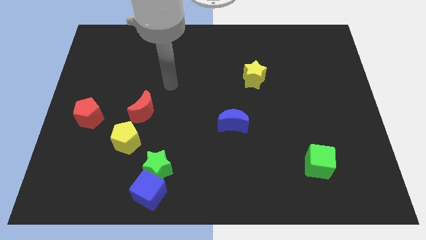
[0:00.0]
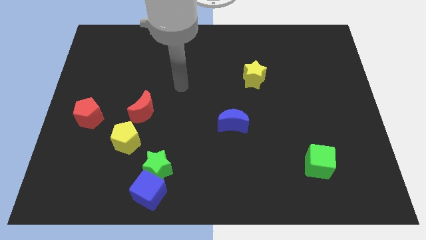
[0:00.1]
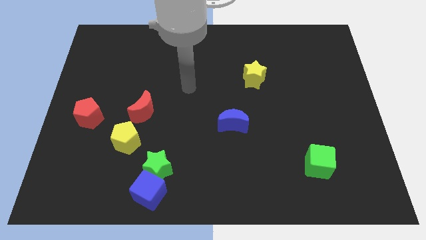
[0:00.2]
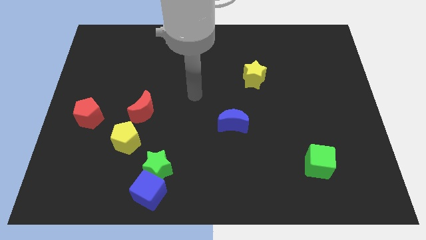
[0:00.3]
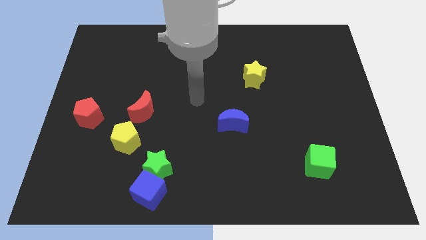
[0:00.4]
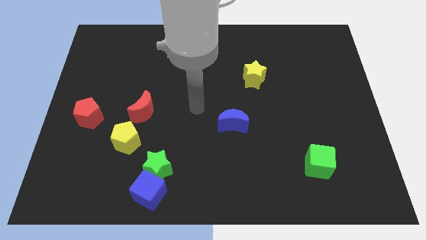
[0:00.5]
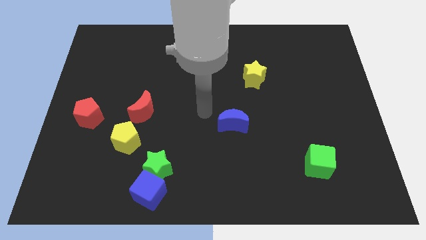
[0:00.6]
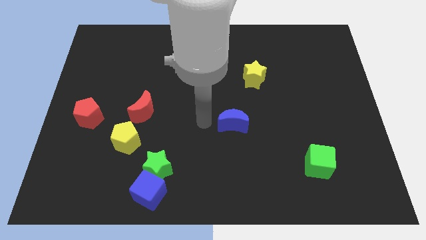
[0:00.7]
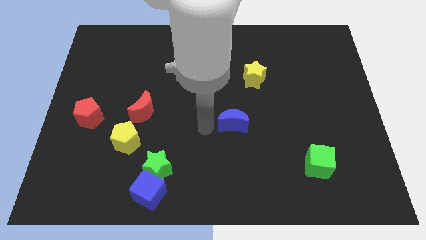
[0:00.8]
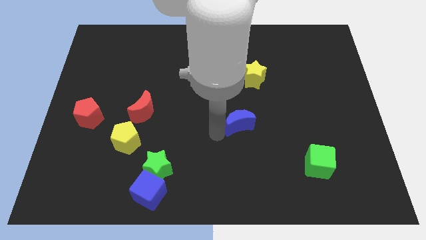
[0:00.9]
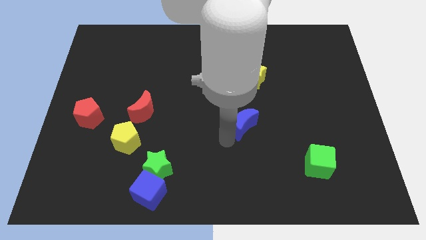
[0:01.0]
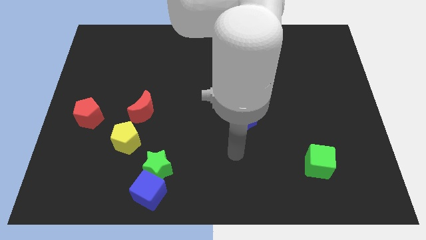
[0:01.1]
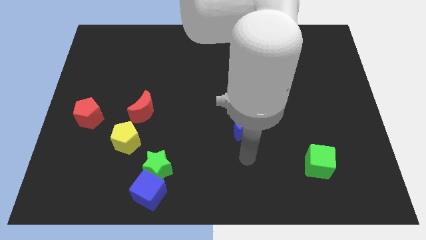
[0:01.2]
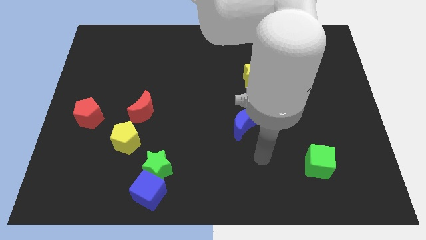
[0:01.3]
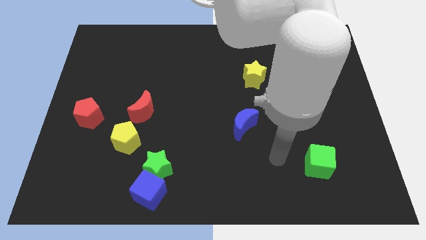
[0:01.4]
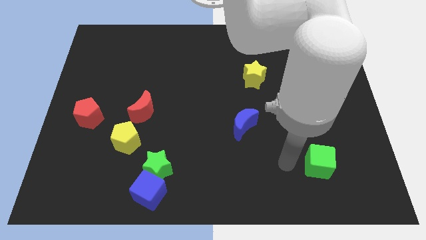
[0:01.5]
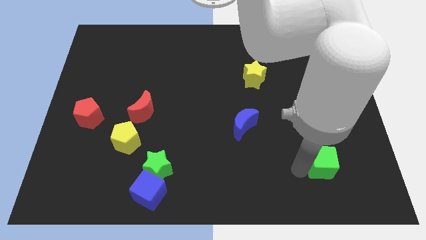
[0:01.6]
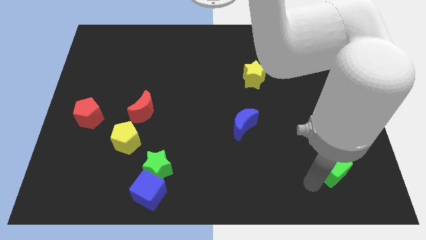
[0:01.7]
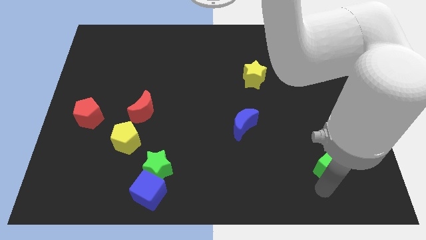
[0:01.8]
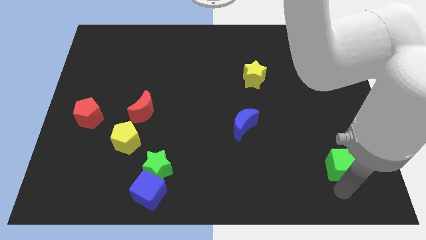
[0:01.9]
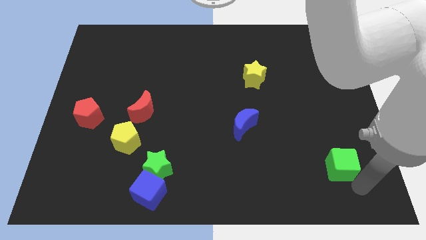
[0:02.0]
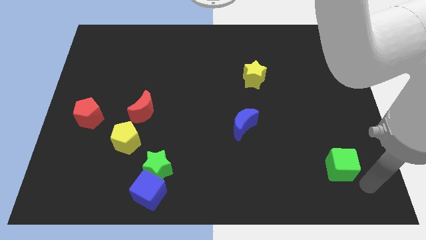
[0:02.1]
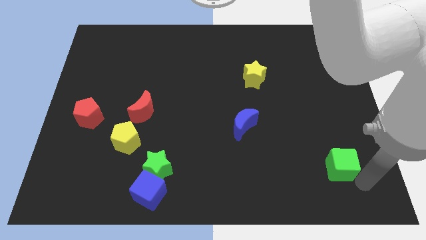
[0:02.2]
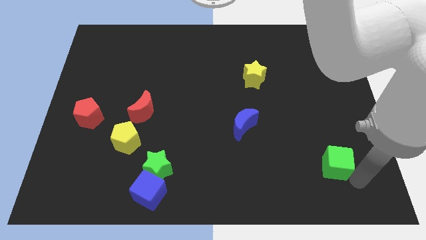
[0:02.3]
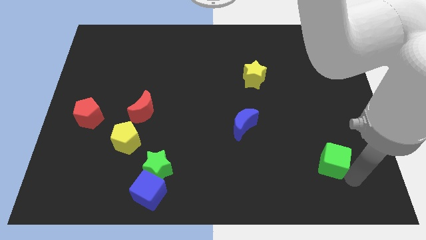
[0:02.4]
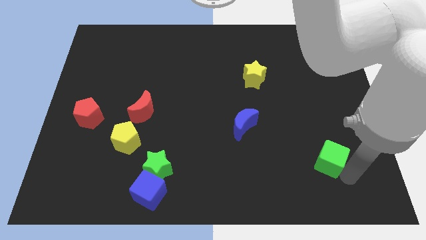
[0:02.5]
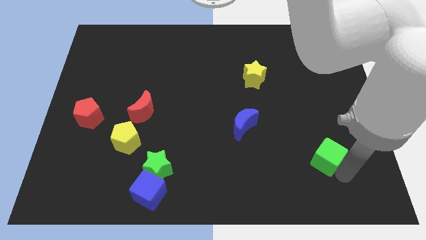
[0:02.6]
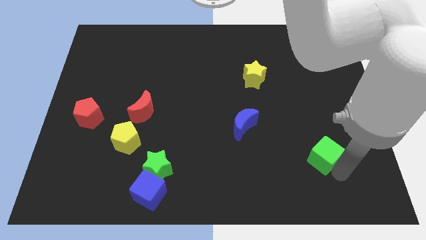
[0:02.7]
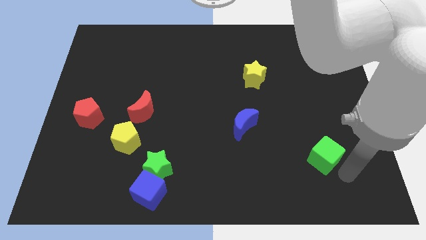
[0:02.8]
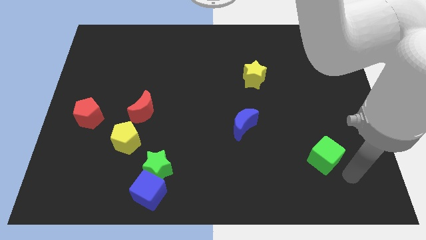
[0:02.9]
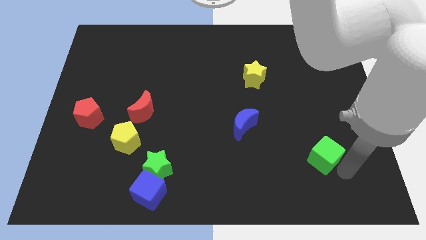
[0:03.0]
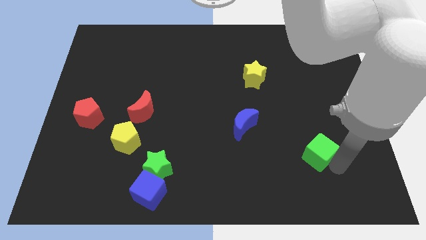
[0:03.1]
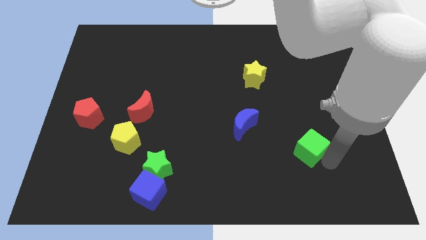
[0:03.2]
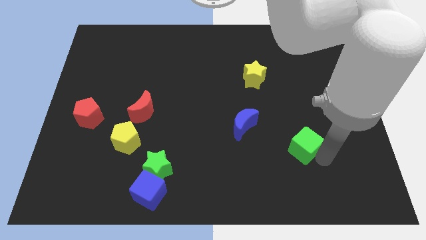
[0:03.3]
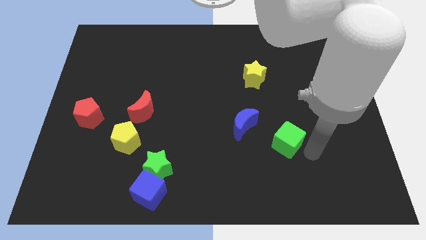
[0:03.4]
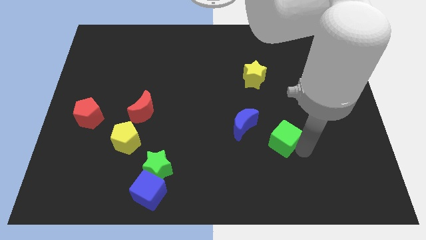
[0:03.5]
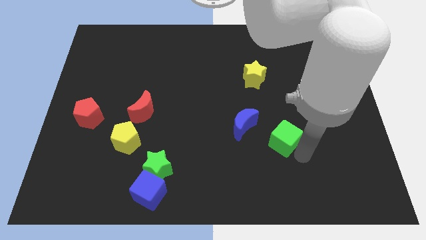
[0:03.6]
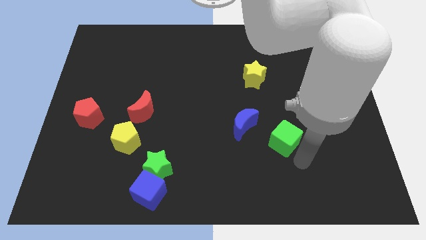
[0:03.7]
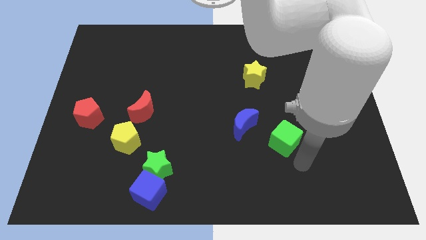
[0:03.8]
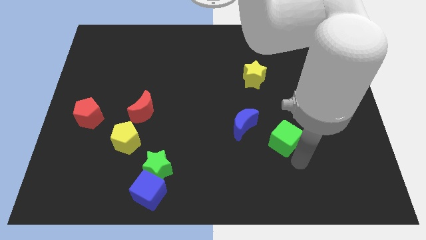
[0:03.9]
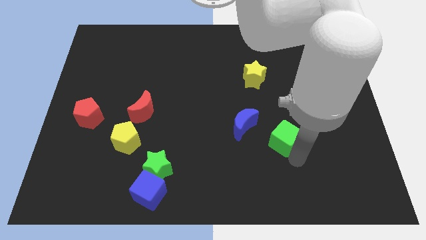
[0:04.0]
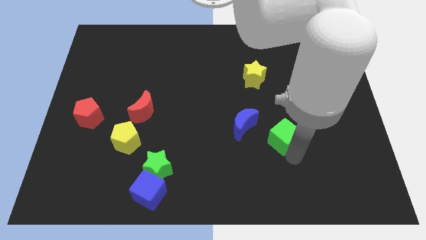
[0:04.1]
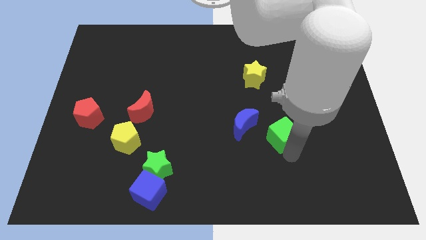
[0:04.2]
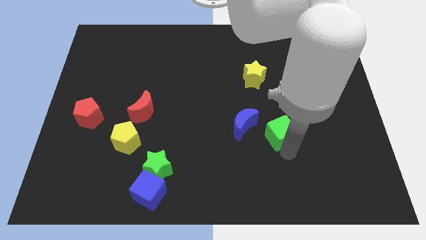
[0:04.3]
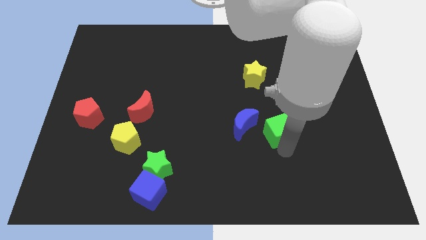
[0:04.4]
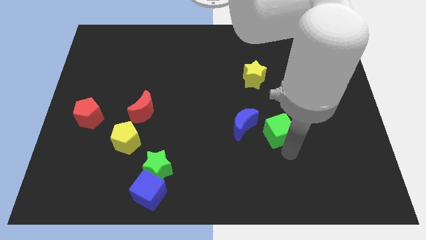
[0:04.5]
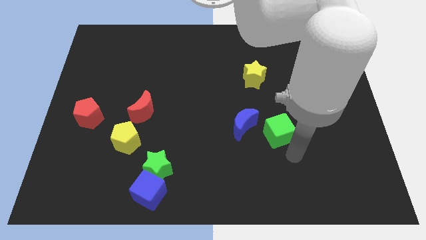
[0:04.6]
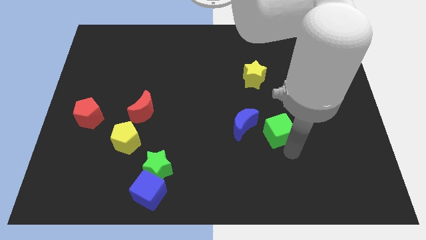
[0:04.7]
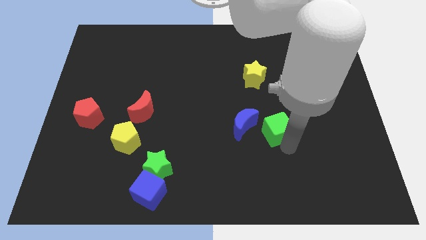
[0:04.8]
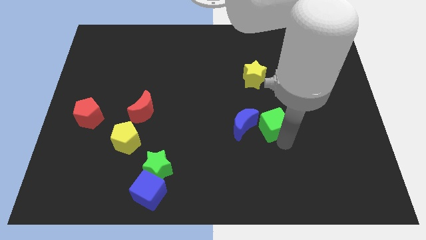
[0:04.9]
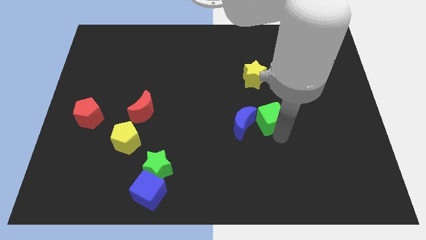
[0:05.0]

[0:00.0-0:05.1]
move the green cube below the yellow star

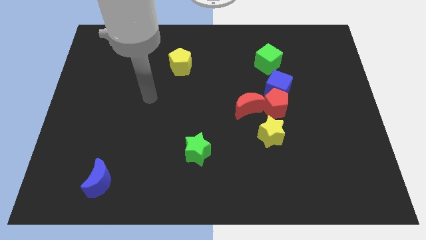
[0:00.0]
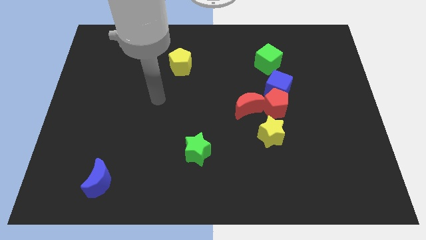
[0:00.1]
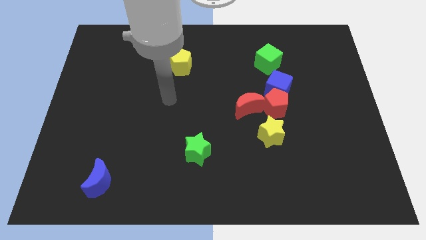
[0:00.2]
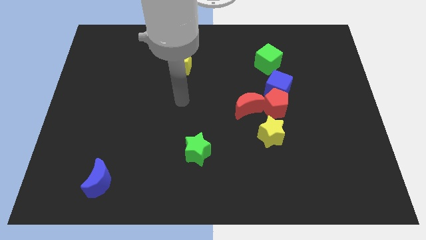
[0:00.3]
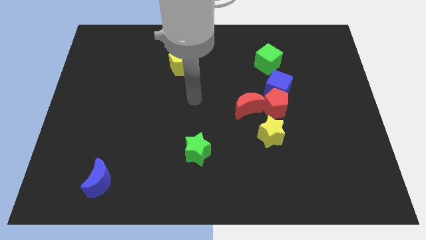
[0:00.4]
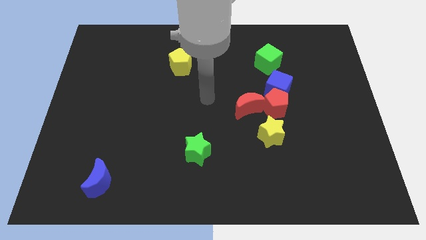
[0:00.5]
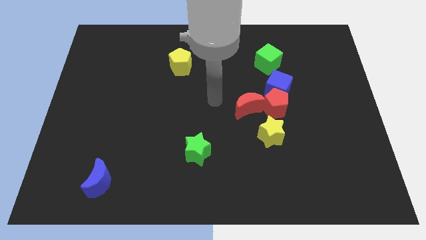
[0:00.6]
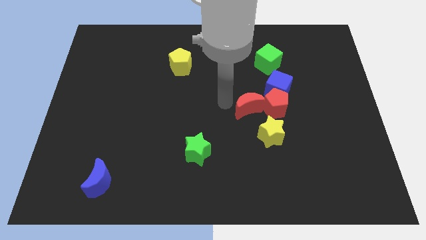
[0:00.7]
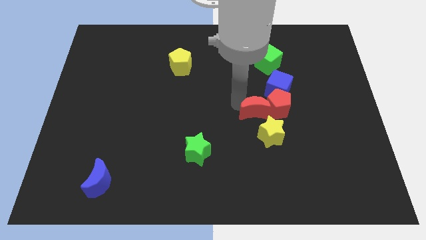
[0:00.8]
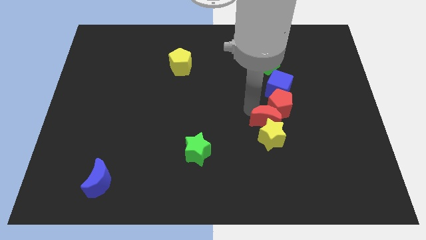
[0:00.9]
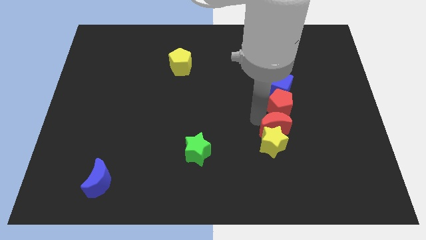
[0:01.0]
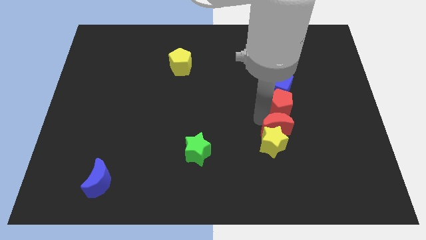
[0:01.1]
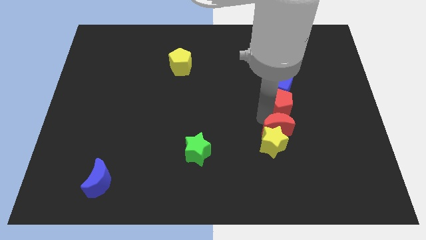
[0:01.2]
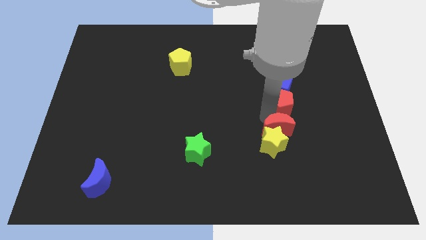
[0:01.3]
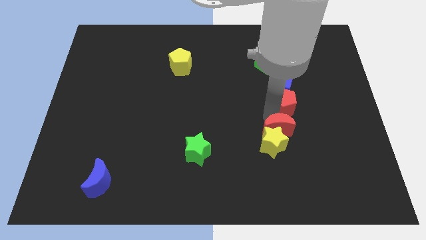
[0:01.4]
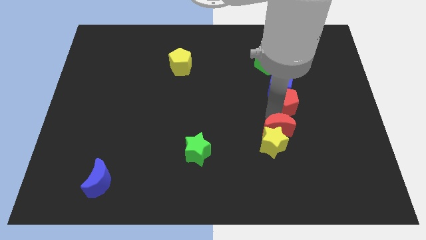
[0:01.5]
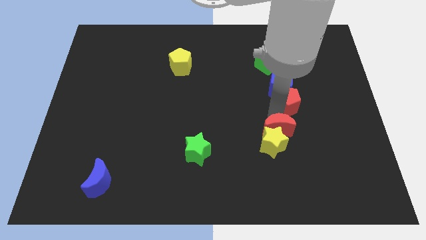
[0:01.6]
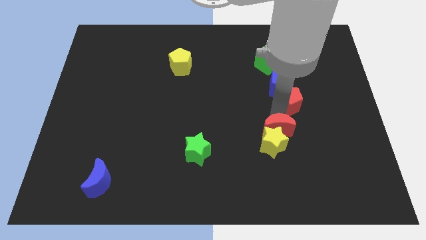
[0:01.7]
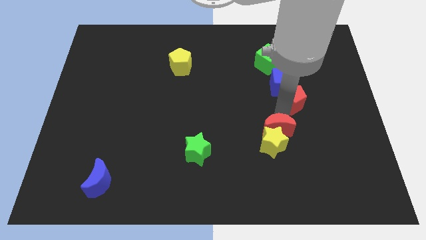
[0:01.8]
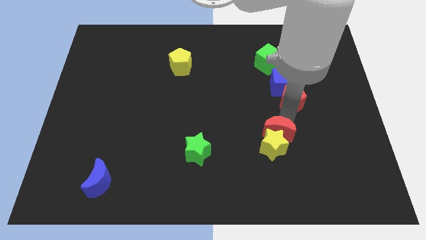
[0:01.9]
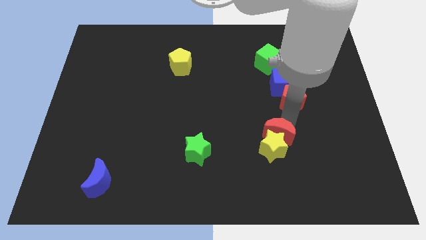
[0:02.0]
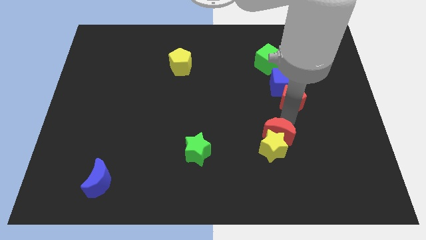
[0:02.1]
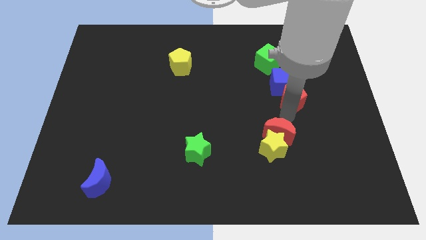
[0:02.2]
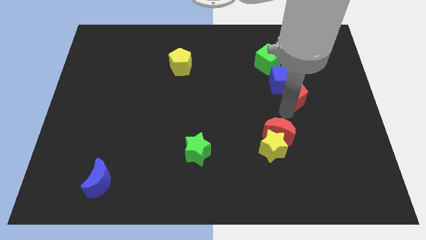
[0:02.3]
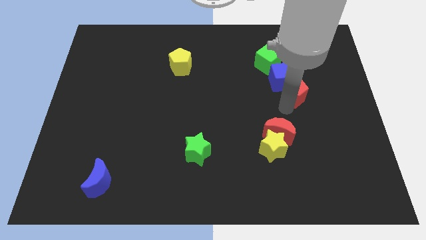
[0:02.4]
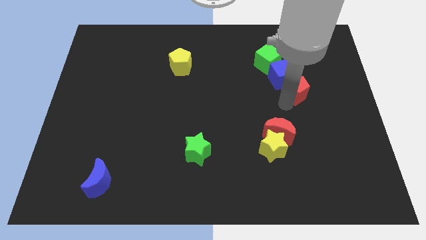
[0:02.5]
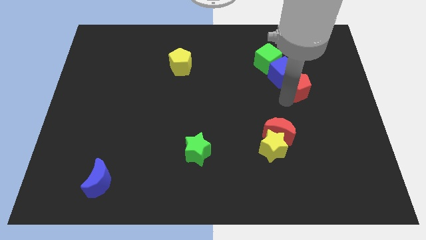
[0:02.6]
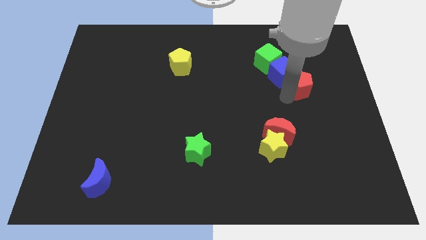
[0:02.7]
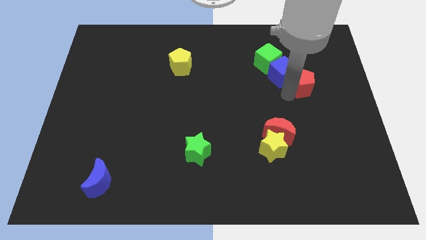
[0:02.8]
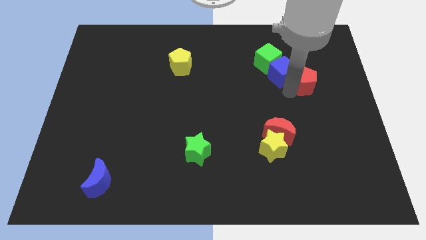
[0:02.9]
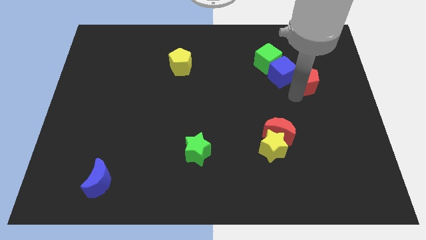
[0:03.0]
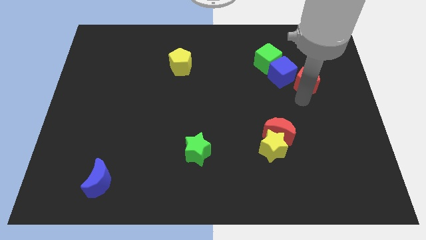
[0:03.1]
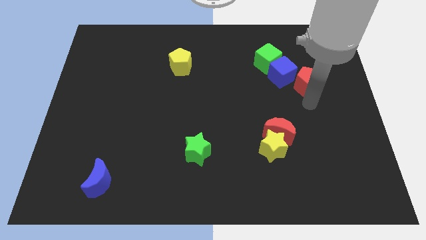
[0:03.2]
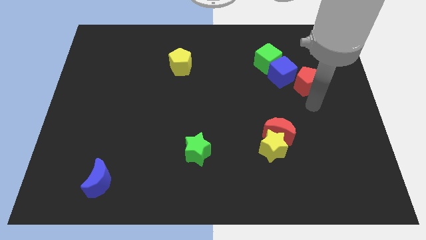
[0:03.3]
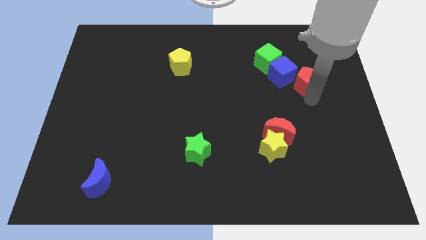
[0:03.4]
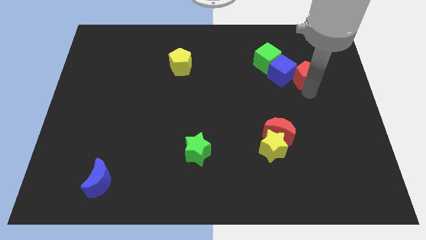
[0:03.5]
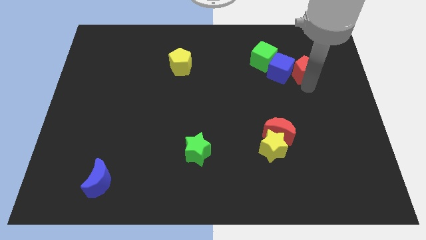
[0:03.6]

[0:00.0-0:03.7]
push the red pentagon diagonally up and to the right of the blue cube
